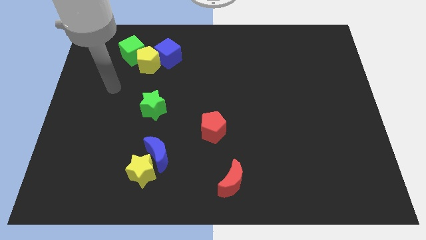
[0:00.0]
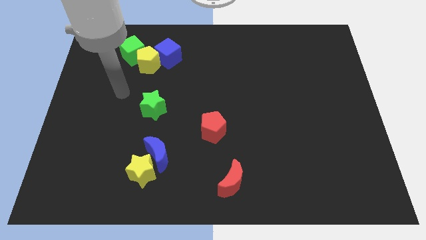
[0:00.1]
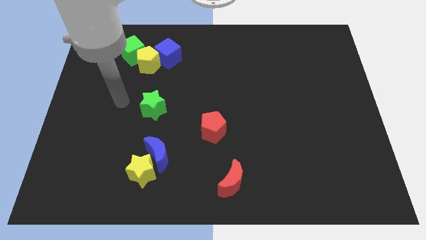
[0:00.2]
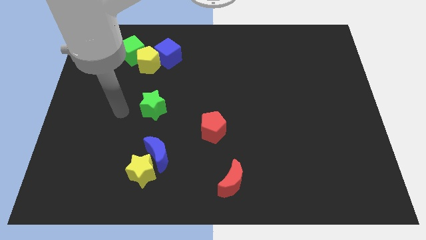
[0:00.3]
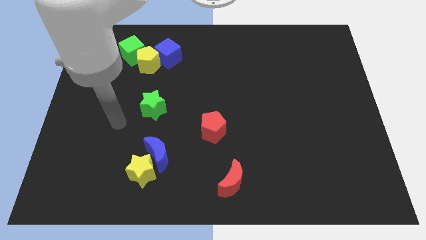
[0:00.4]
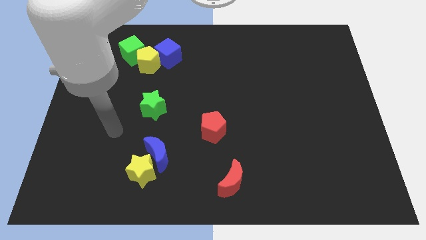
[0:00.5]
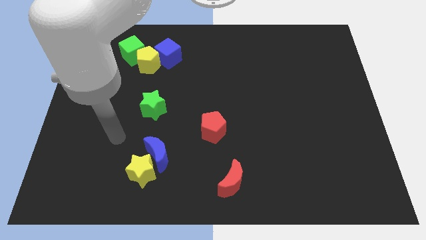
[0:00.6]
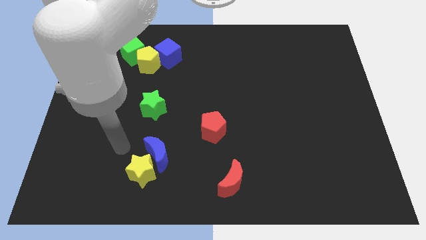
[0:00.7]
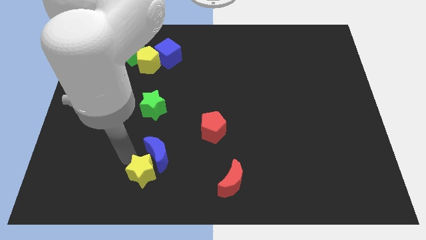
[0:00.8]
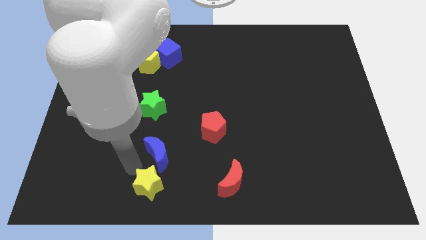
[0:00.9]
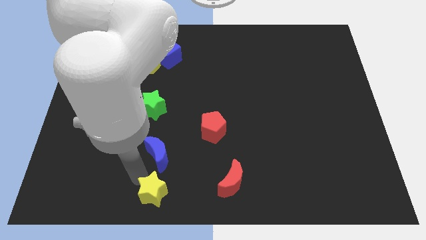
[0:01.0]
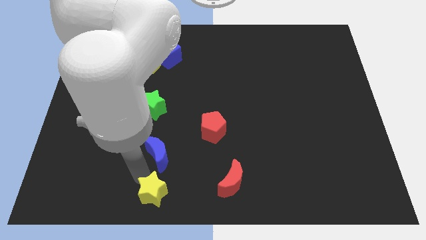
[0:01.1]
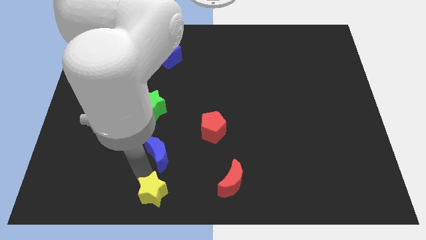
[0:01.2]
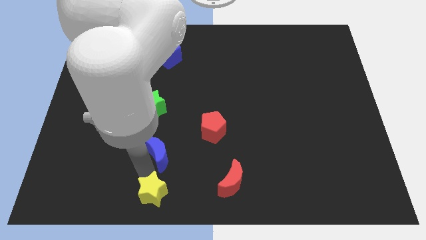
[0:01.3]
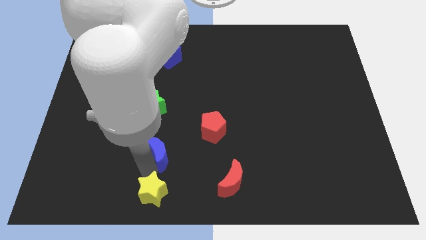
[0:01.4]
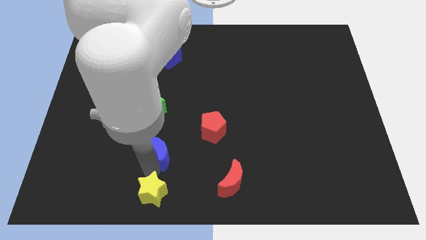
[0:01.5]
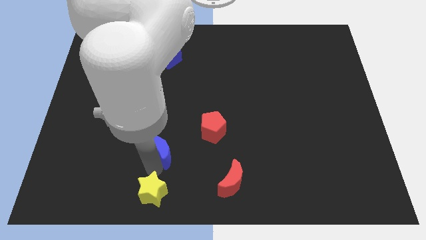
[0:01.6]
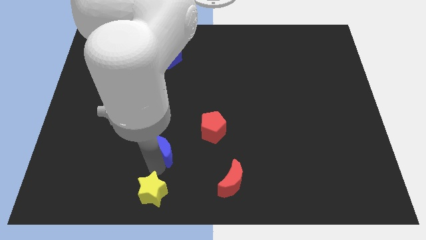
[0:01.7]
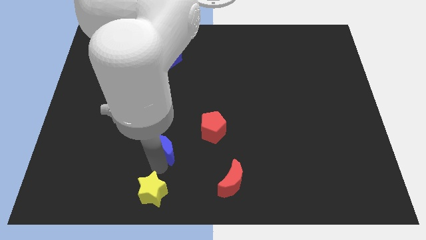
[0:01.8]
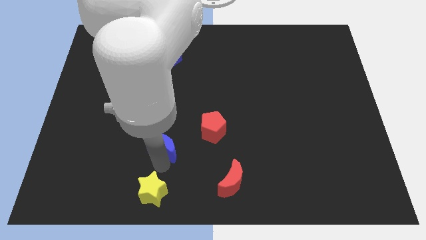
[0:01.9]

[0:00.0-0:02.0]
pull the blue moon apart from the yellow star

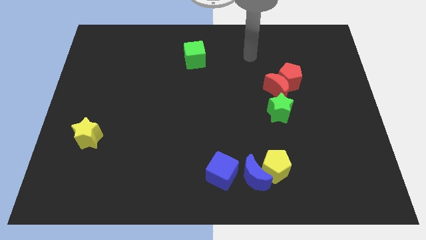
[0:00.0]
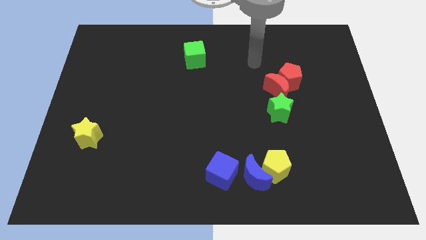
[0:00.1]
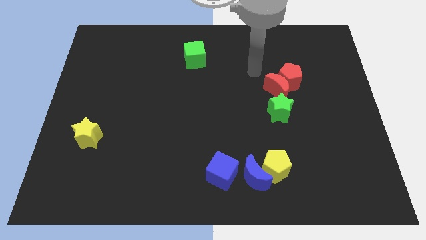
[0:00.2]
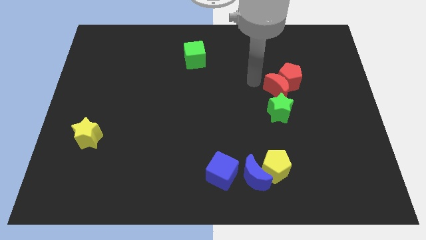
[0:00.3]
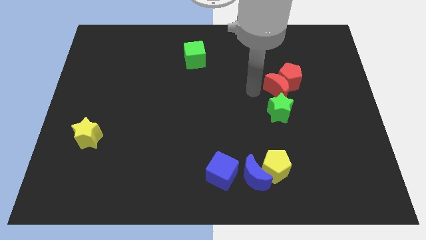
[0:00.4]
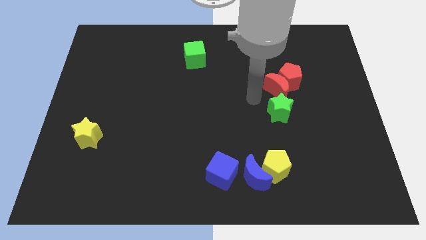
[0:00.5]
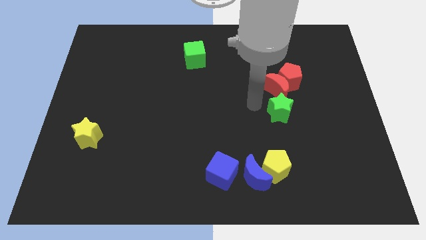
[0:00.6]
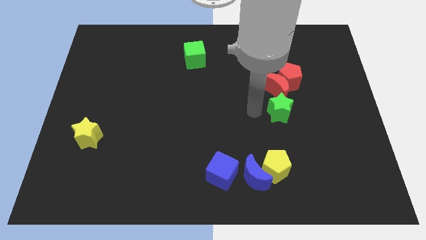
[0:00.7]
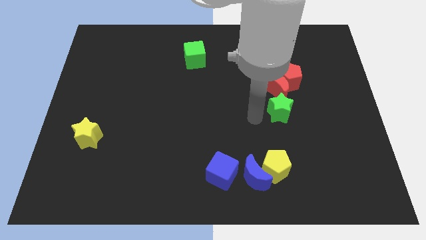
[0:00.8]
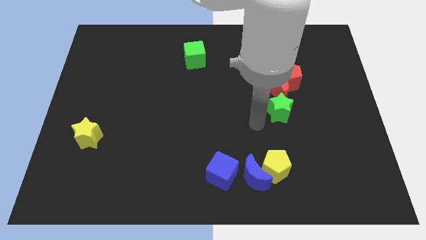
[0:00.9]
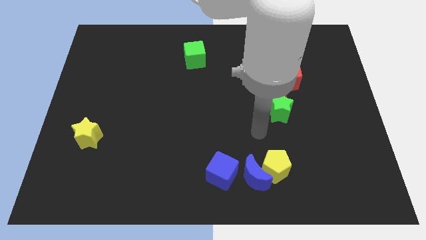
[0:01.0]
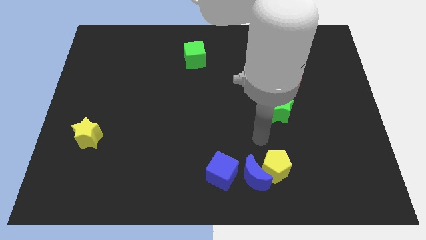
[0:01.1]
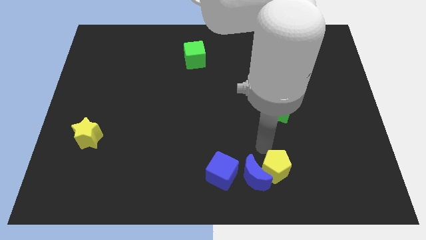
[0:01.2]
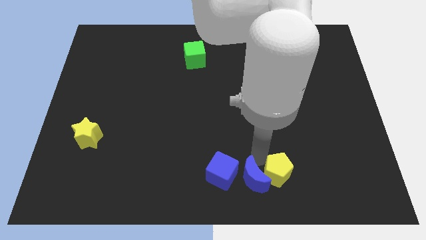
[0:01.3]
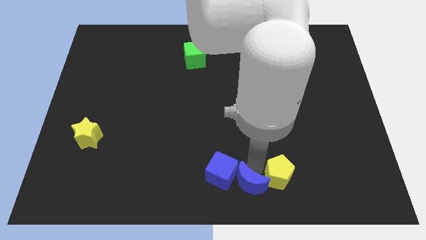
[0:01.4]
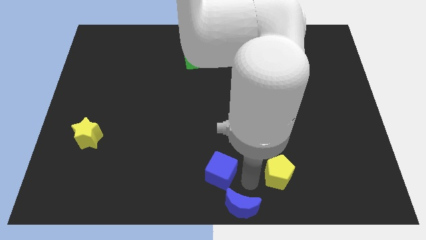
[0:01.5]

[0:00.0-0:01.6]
move the yellow pentagon away from the blue moon

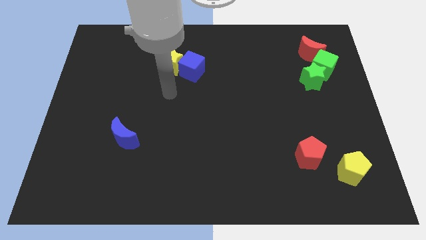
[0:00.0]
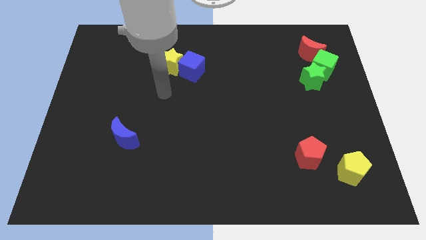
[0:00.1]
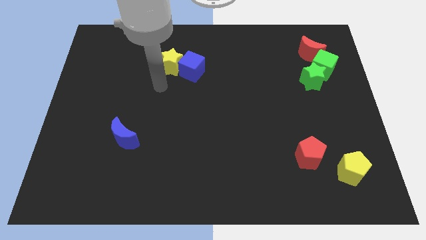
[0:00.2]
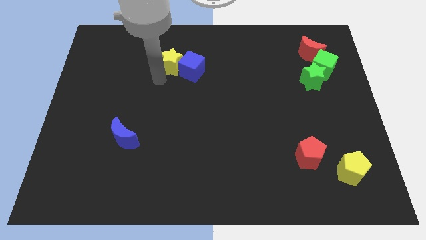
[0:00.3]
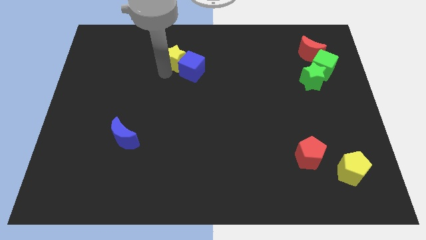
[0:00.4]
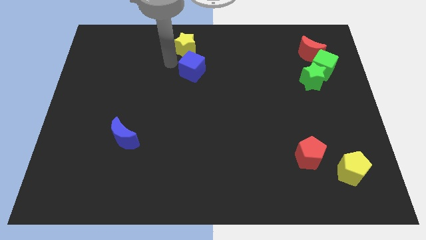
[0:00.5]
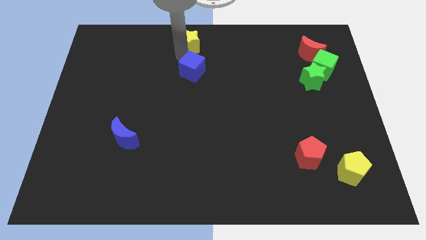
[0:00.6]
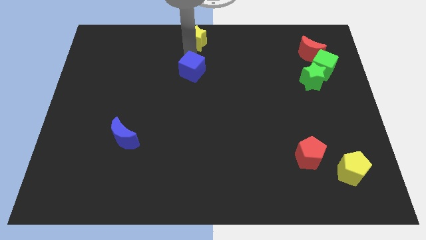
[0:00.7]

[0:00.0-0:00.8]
move the blue cube away from the yellow star

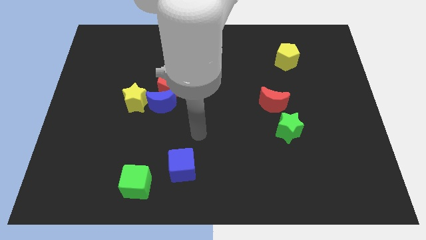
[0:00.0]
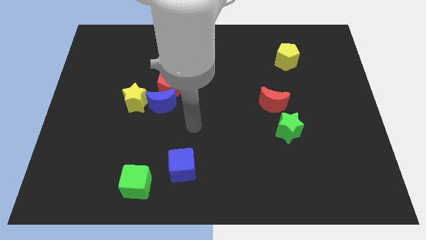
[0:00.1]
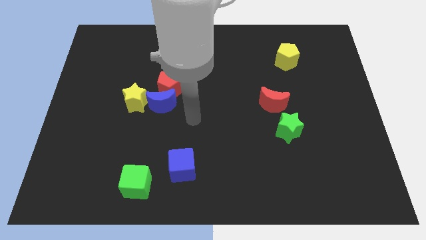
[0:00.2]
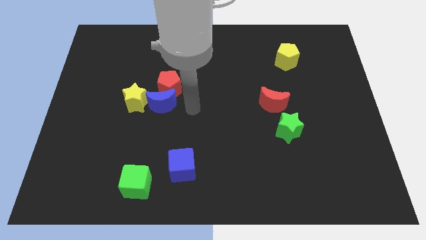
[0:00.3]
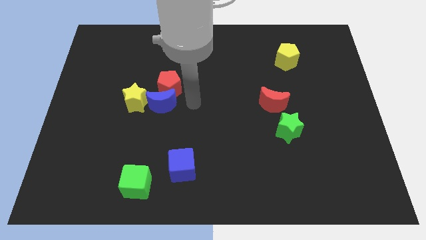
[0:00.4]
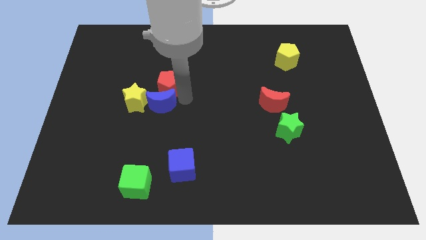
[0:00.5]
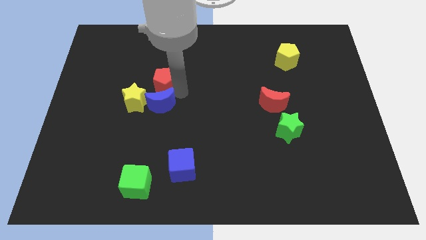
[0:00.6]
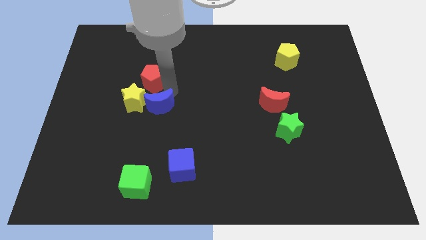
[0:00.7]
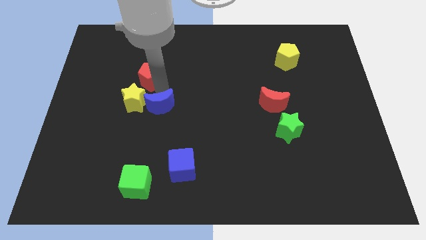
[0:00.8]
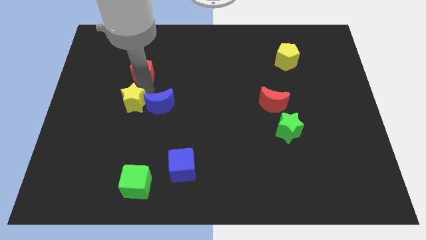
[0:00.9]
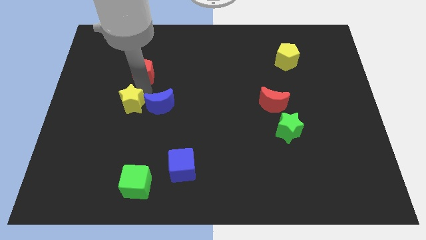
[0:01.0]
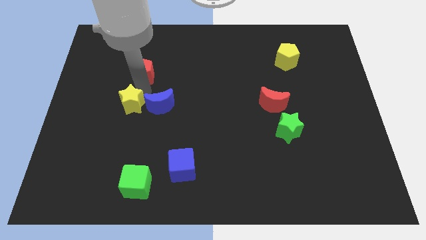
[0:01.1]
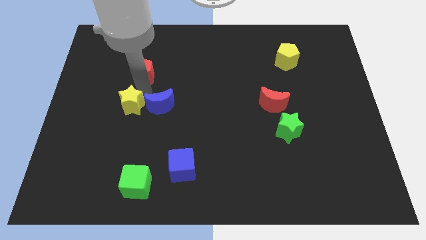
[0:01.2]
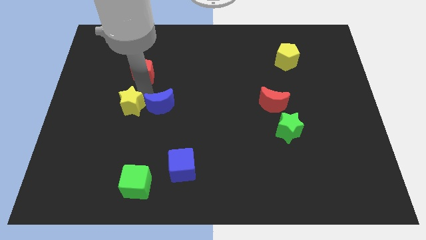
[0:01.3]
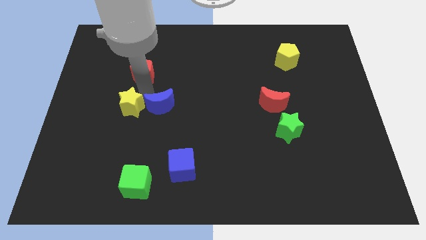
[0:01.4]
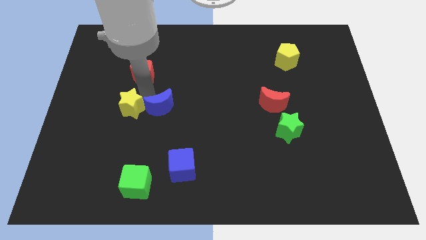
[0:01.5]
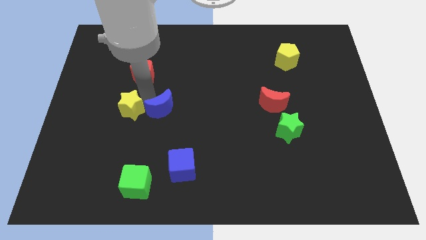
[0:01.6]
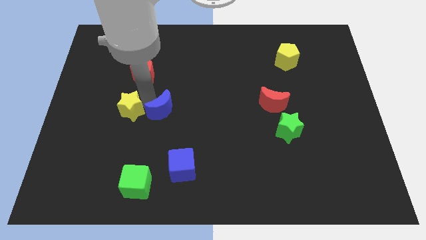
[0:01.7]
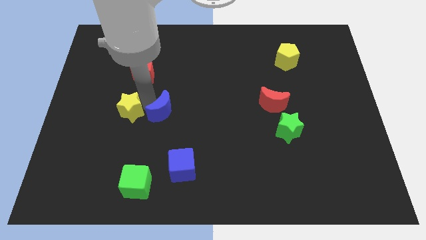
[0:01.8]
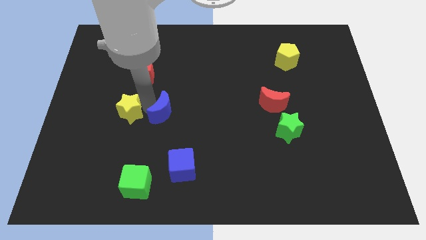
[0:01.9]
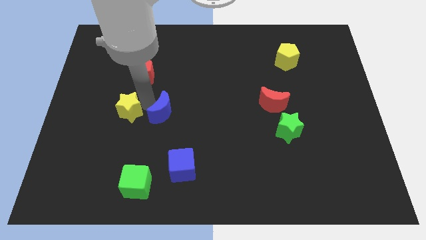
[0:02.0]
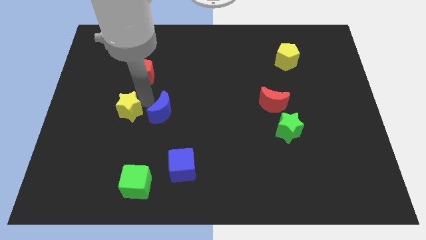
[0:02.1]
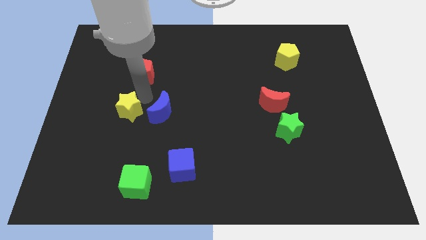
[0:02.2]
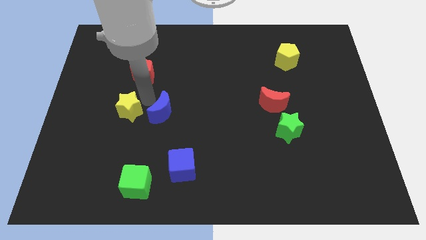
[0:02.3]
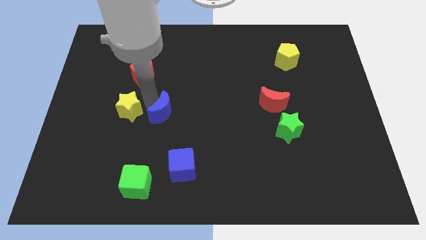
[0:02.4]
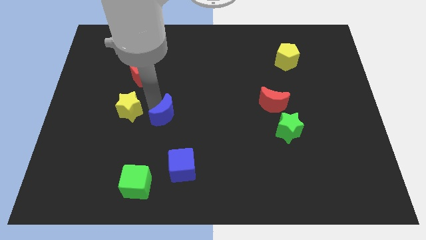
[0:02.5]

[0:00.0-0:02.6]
separate the blue moon from the red pentagon and yellow star

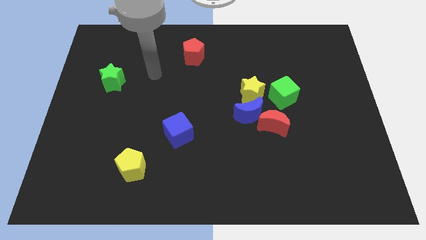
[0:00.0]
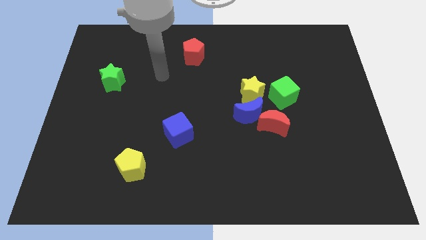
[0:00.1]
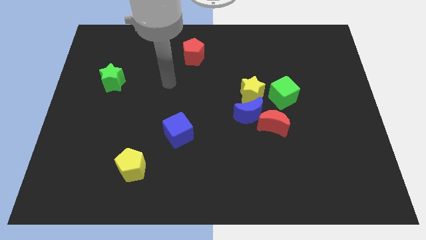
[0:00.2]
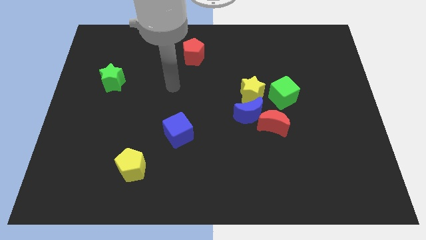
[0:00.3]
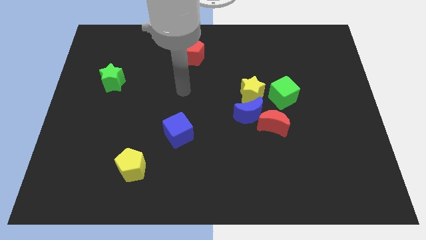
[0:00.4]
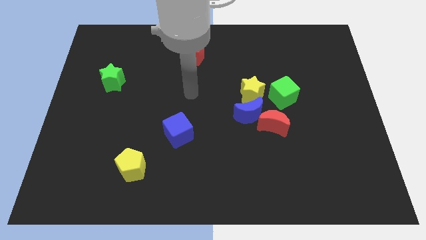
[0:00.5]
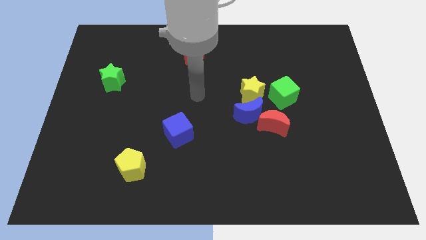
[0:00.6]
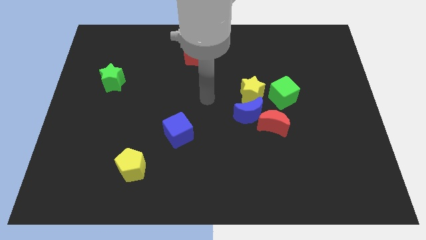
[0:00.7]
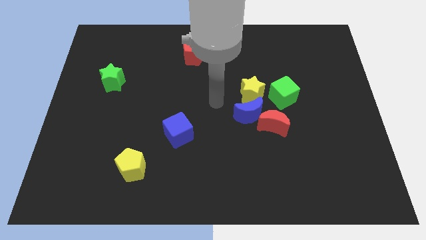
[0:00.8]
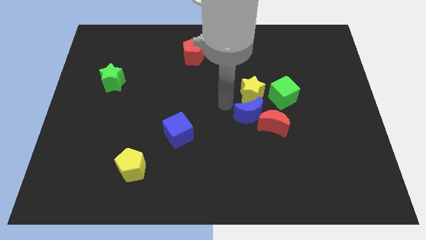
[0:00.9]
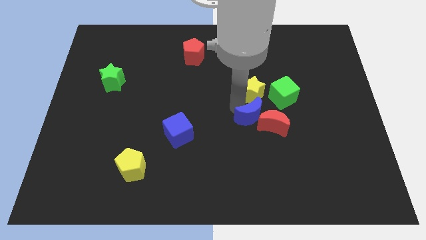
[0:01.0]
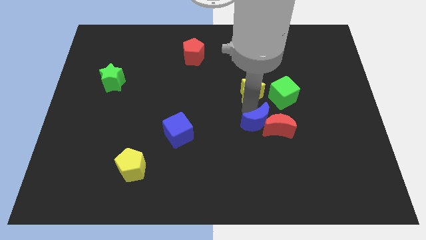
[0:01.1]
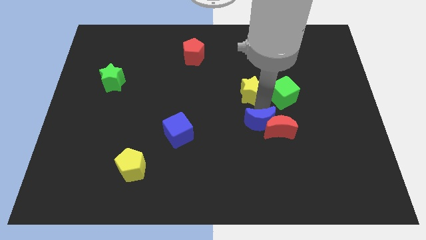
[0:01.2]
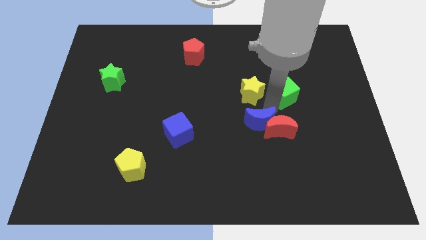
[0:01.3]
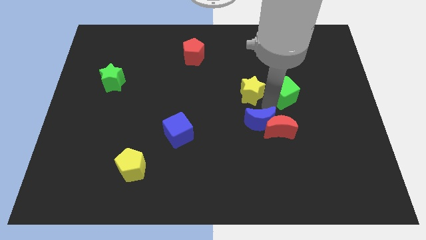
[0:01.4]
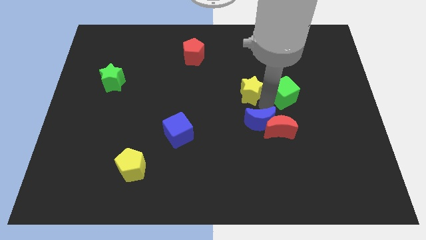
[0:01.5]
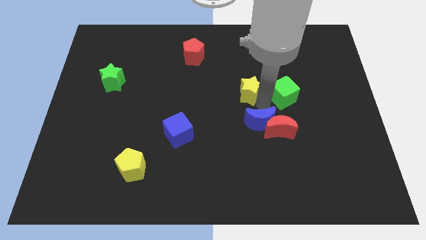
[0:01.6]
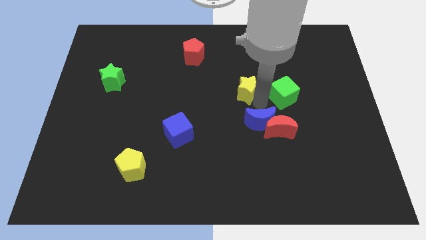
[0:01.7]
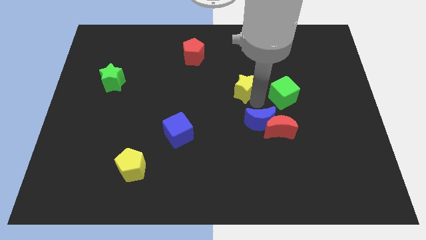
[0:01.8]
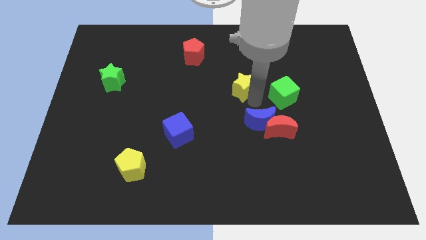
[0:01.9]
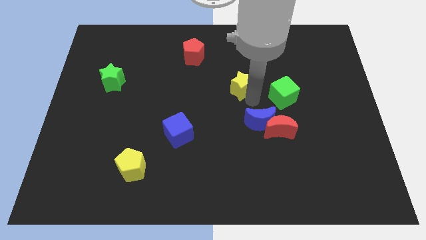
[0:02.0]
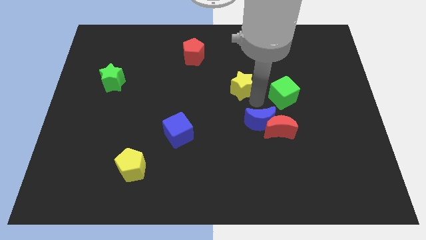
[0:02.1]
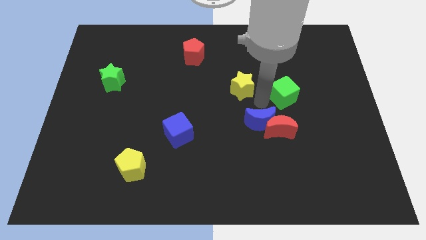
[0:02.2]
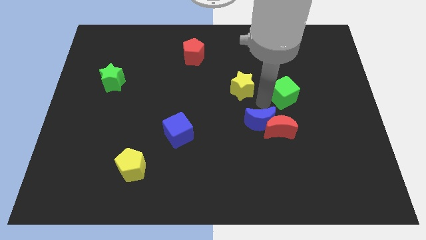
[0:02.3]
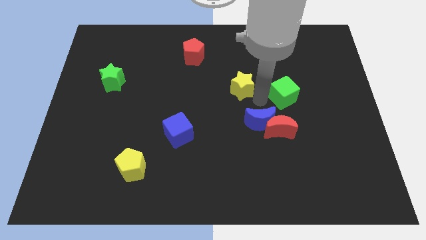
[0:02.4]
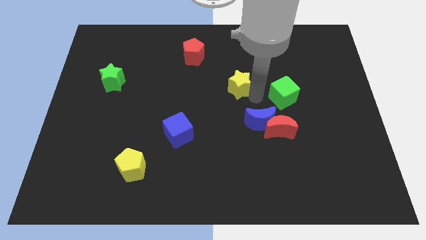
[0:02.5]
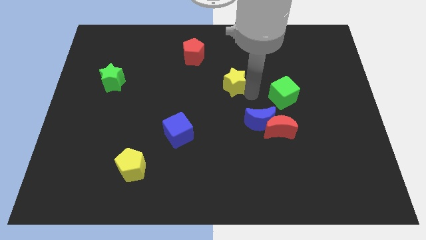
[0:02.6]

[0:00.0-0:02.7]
pull the yellow star apart from the blue moon and green cube
